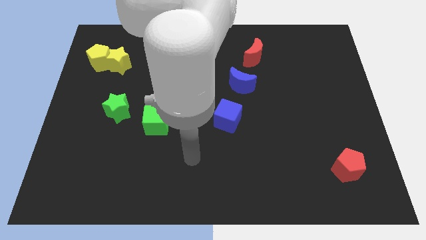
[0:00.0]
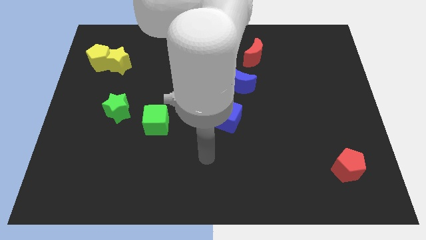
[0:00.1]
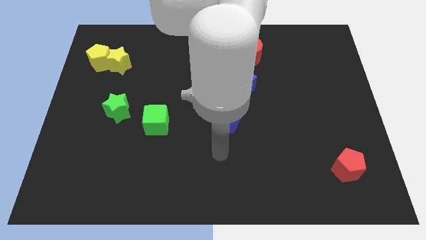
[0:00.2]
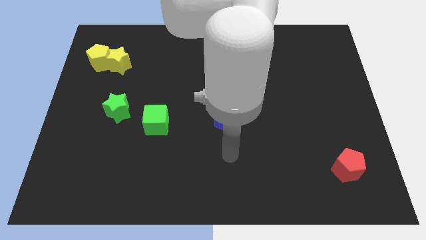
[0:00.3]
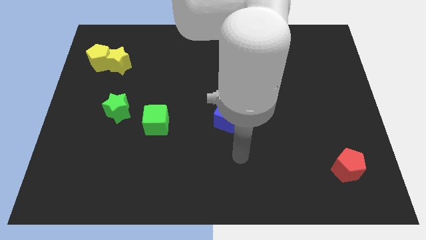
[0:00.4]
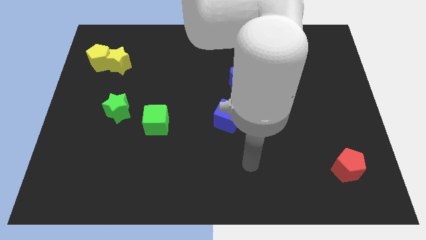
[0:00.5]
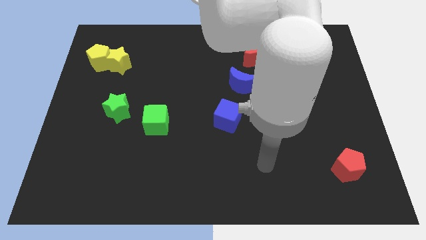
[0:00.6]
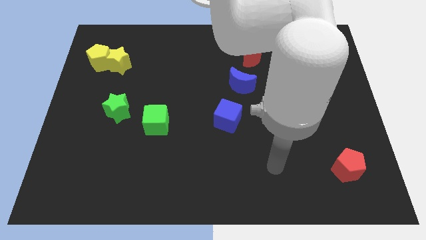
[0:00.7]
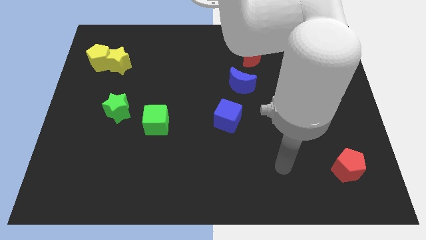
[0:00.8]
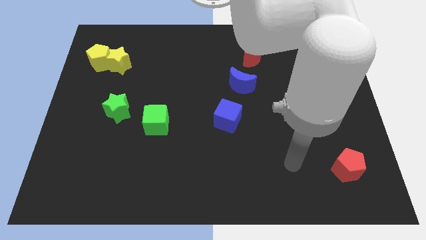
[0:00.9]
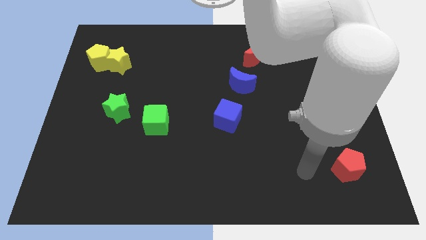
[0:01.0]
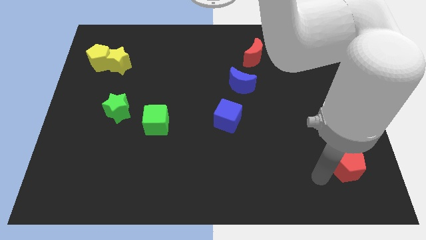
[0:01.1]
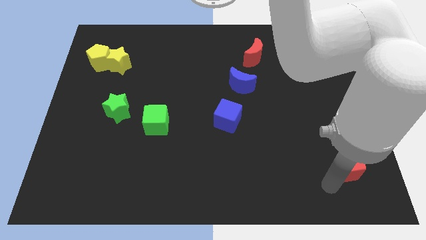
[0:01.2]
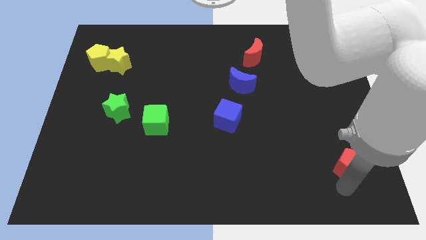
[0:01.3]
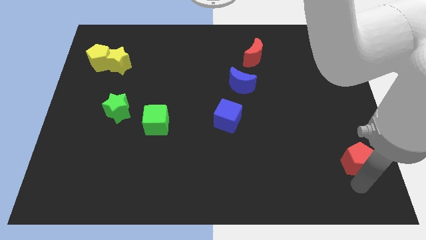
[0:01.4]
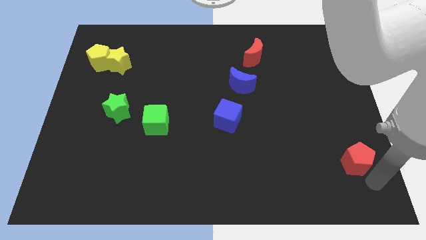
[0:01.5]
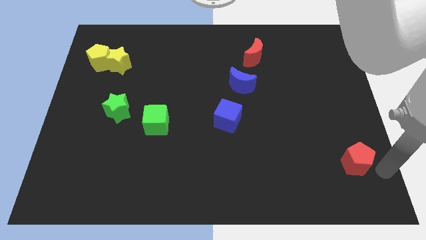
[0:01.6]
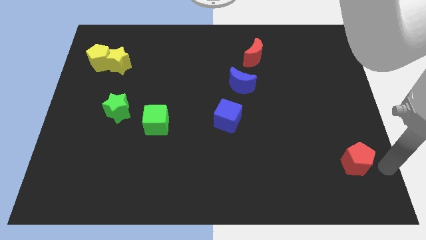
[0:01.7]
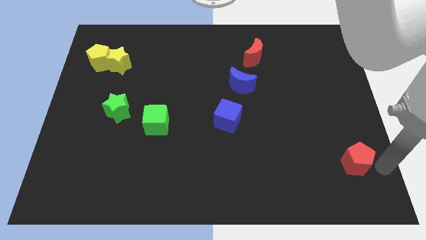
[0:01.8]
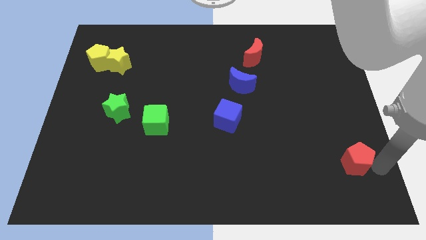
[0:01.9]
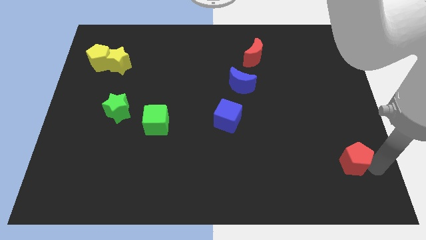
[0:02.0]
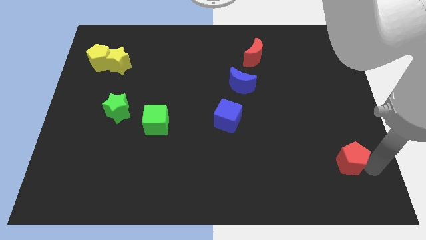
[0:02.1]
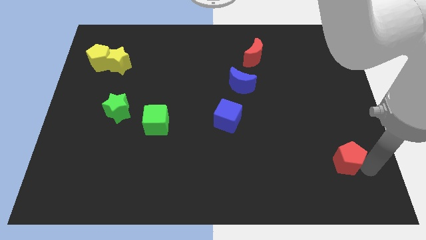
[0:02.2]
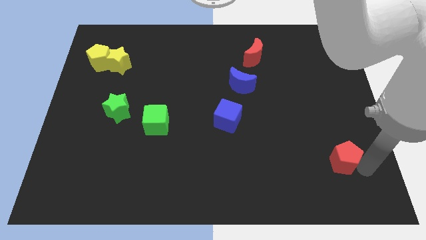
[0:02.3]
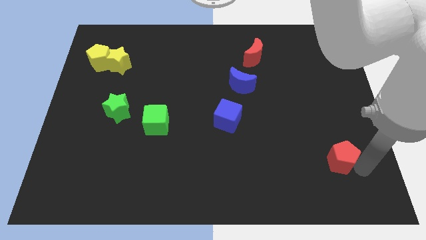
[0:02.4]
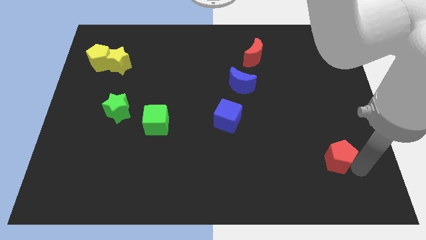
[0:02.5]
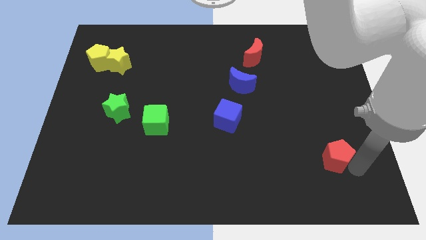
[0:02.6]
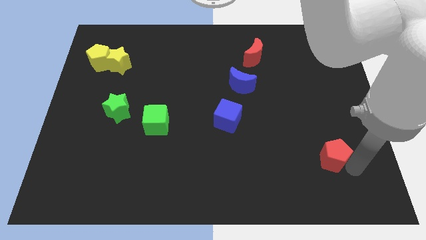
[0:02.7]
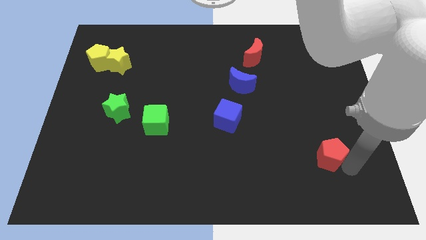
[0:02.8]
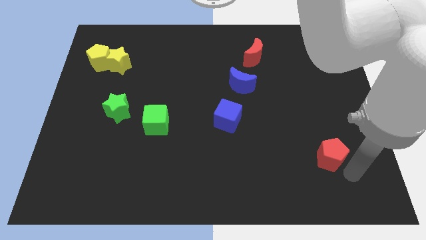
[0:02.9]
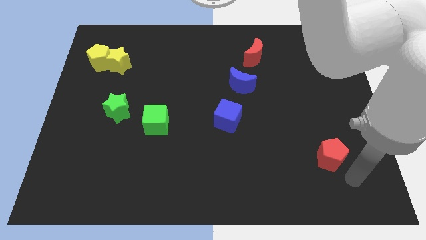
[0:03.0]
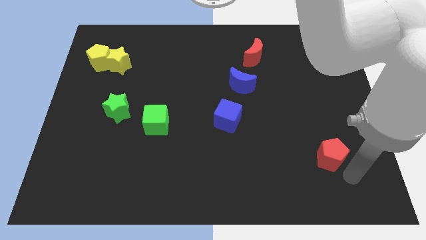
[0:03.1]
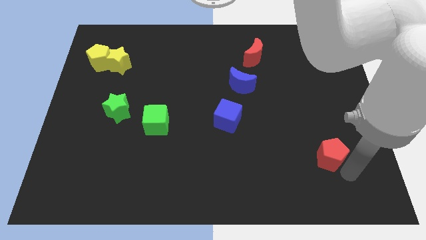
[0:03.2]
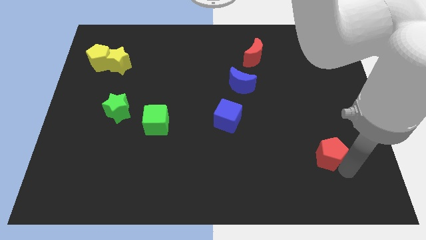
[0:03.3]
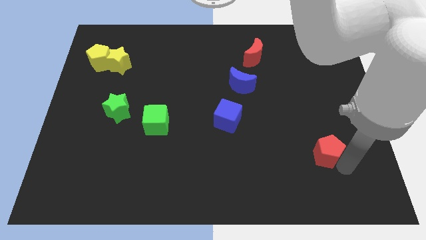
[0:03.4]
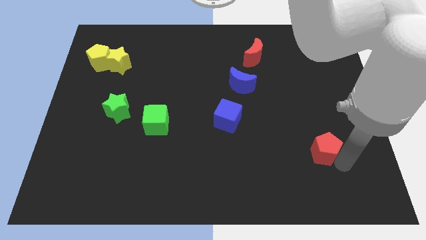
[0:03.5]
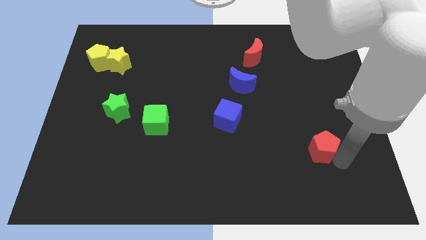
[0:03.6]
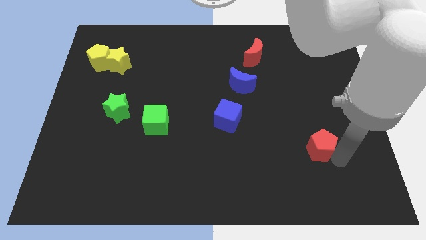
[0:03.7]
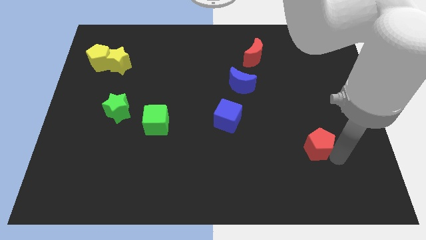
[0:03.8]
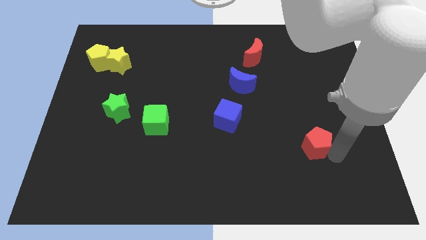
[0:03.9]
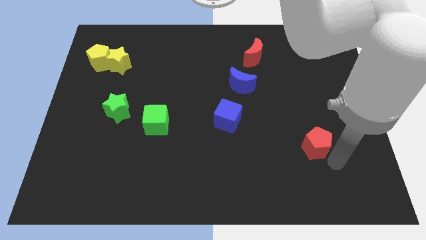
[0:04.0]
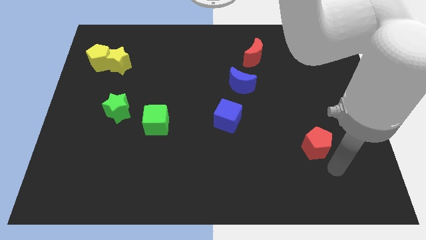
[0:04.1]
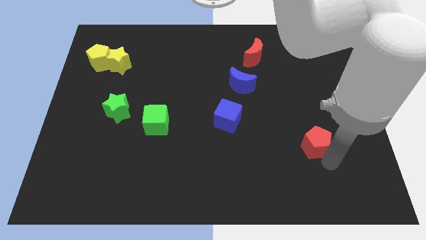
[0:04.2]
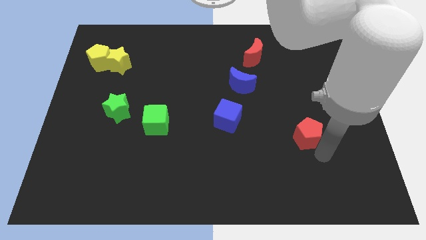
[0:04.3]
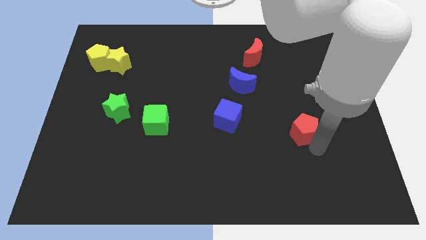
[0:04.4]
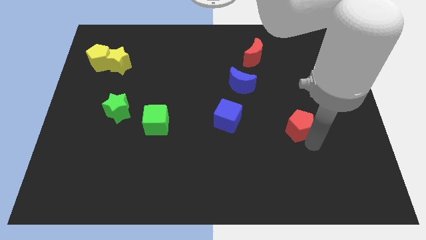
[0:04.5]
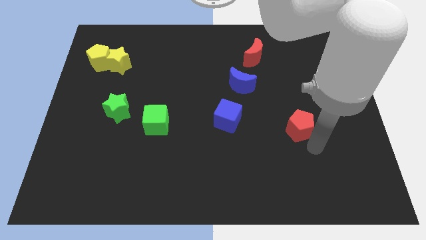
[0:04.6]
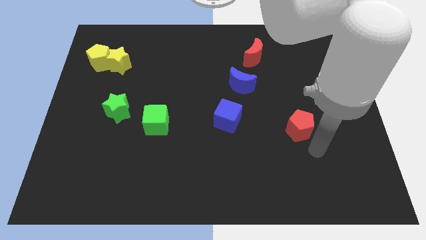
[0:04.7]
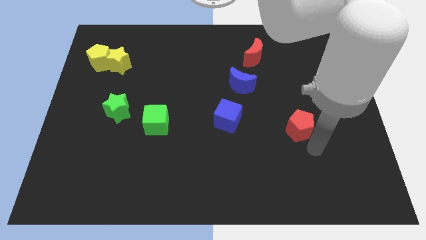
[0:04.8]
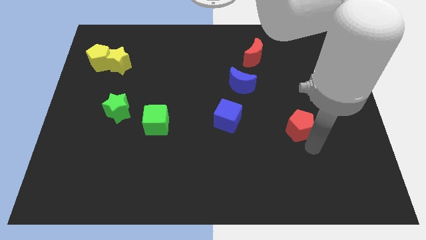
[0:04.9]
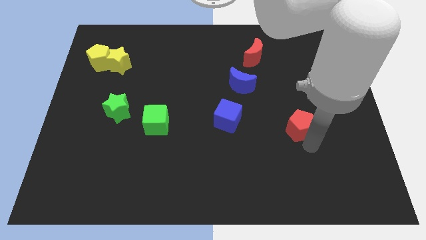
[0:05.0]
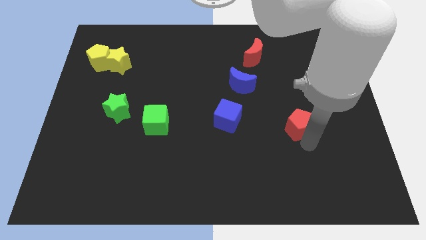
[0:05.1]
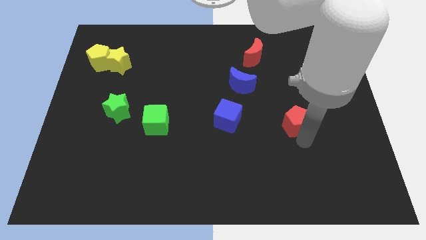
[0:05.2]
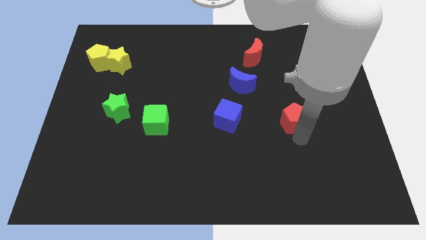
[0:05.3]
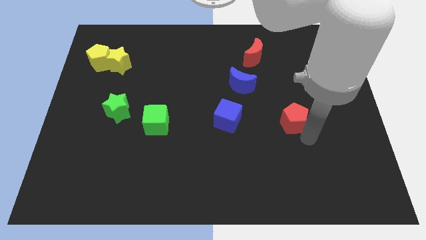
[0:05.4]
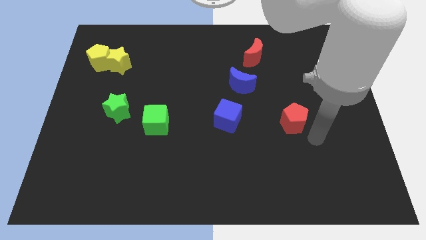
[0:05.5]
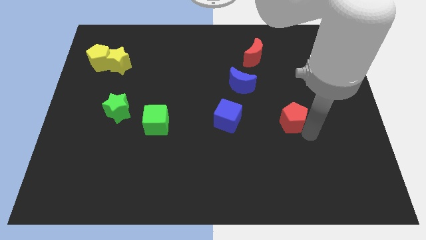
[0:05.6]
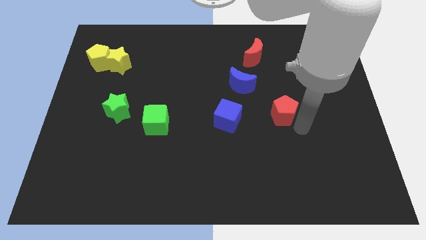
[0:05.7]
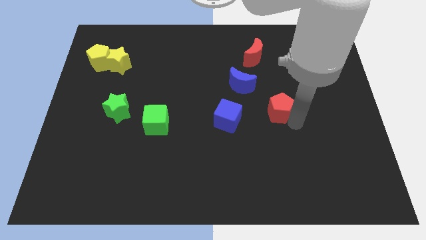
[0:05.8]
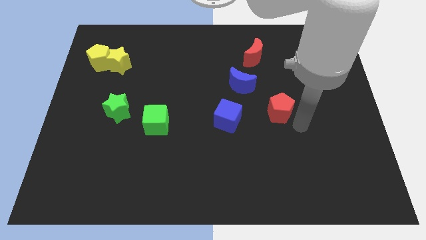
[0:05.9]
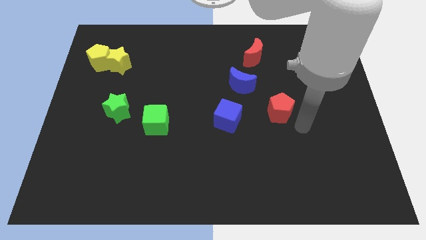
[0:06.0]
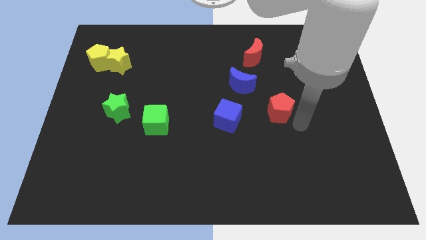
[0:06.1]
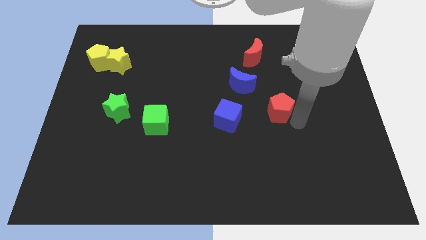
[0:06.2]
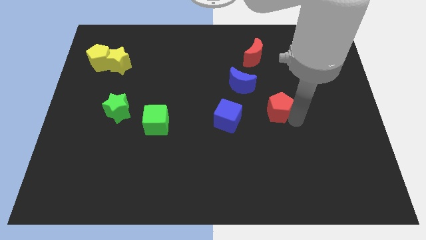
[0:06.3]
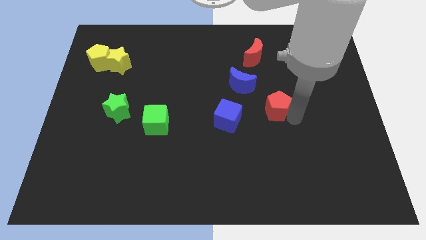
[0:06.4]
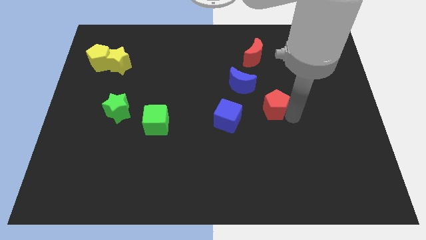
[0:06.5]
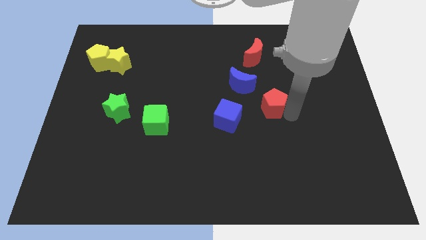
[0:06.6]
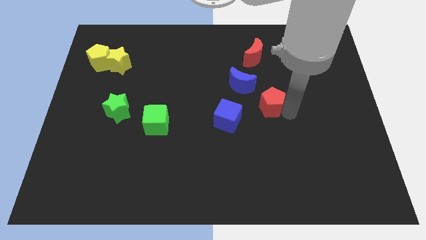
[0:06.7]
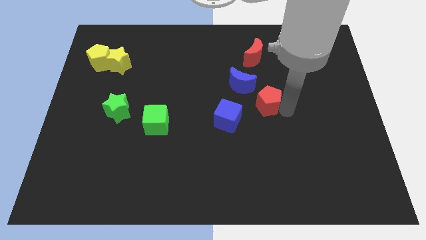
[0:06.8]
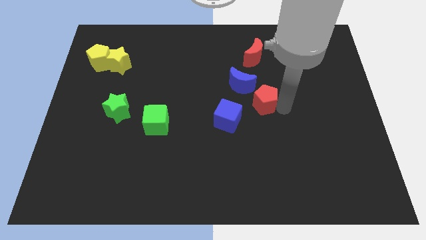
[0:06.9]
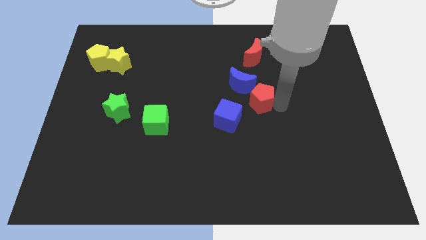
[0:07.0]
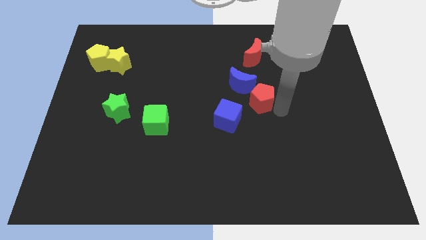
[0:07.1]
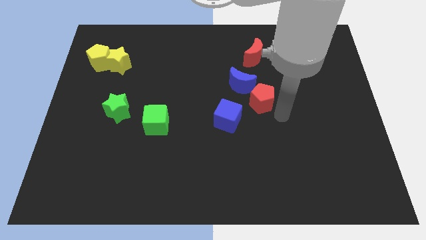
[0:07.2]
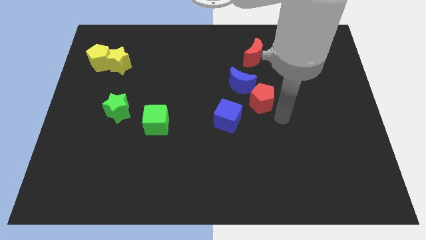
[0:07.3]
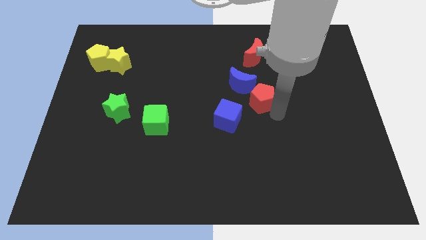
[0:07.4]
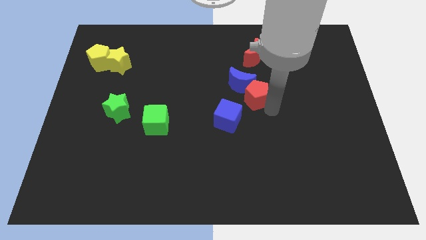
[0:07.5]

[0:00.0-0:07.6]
push the red pentagon to the blue moon

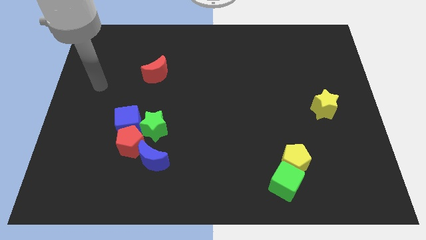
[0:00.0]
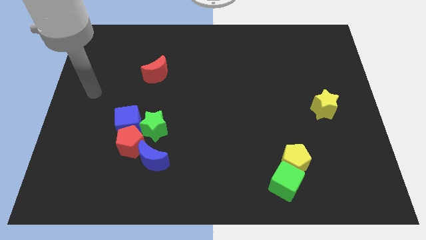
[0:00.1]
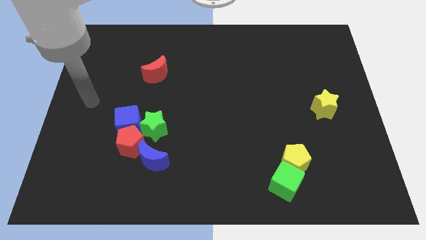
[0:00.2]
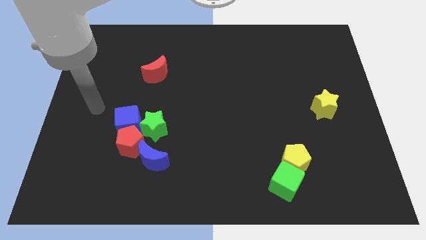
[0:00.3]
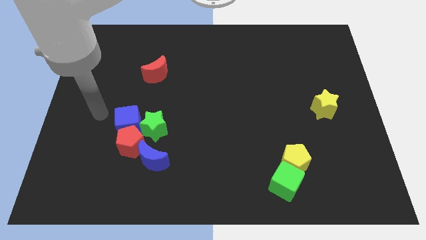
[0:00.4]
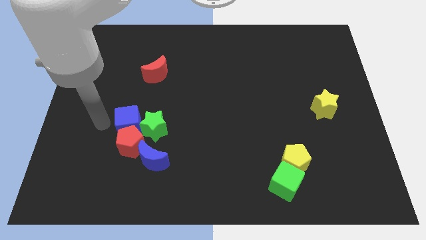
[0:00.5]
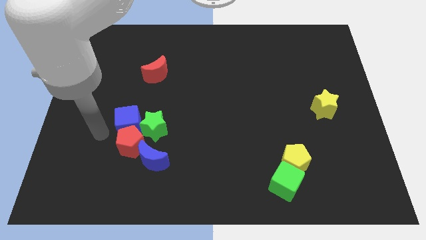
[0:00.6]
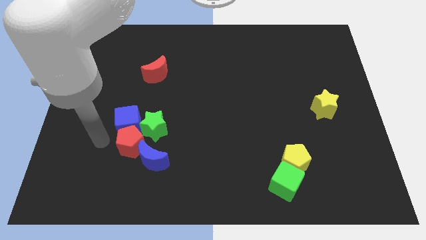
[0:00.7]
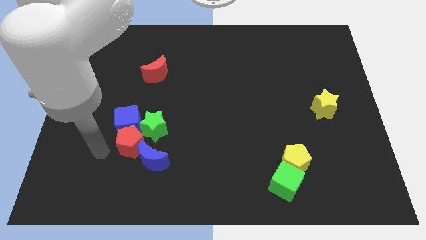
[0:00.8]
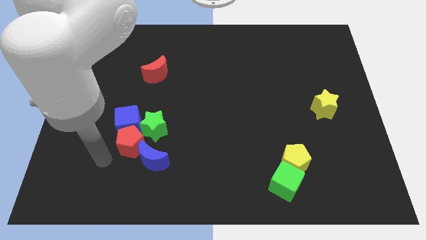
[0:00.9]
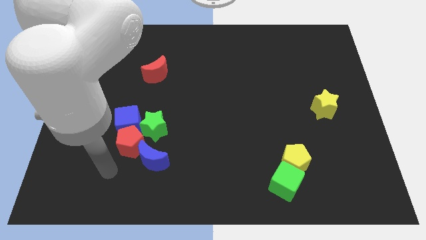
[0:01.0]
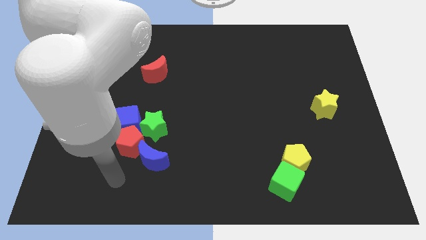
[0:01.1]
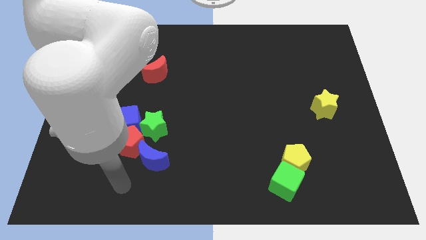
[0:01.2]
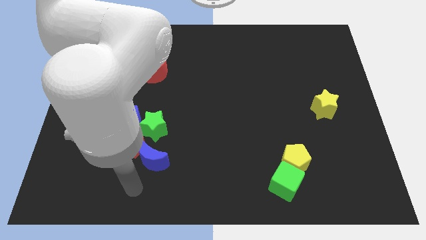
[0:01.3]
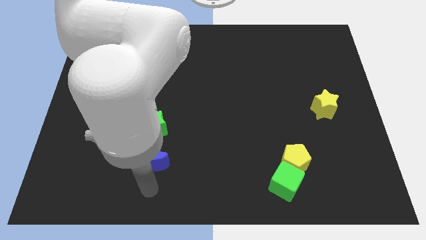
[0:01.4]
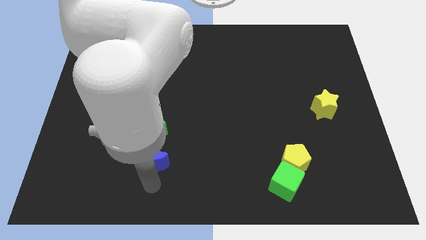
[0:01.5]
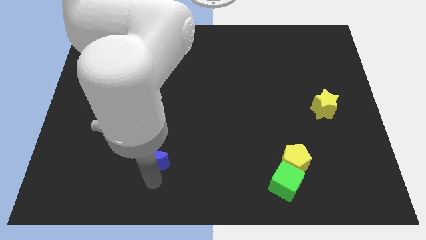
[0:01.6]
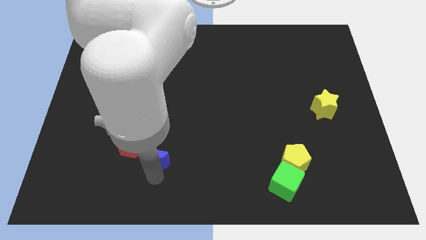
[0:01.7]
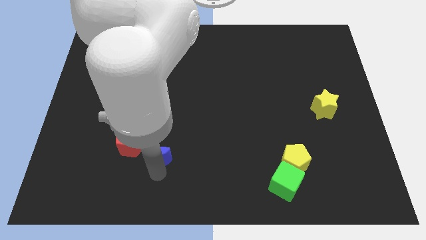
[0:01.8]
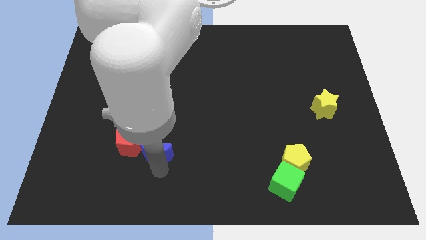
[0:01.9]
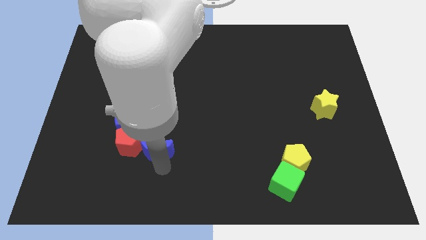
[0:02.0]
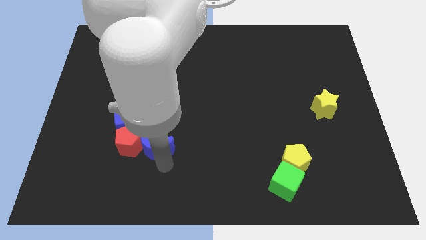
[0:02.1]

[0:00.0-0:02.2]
push the blue moon towards the green star
